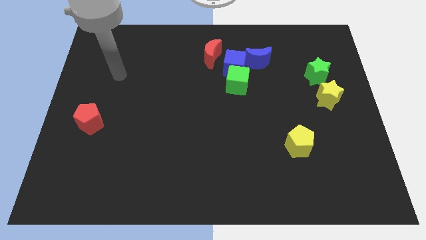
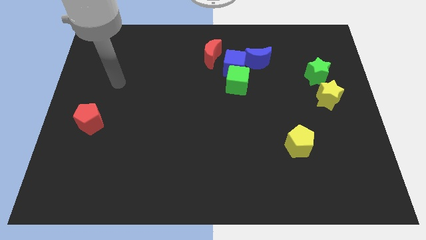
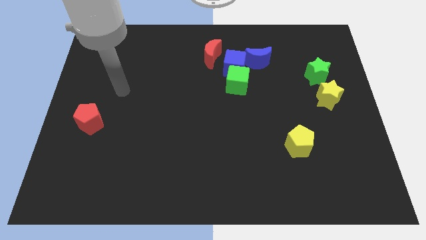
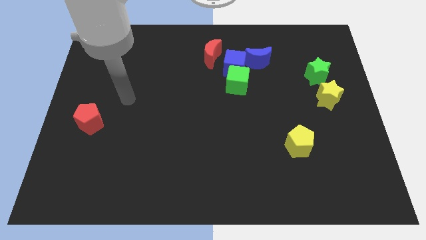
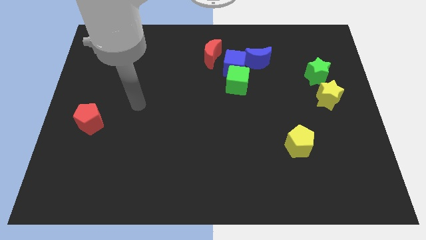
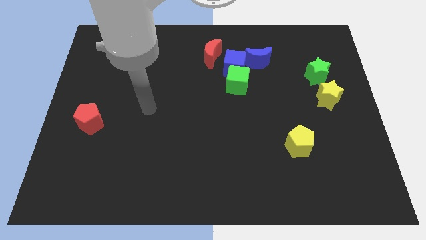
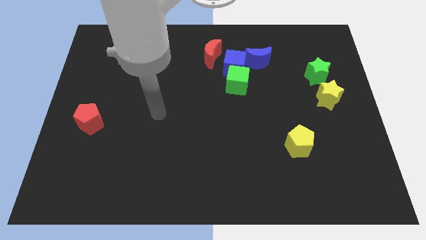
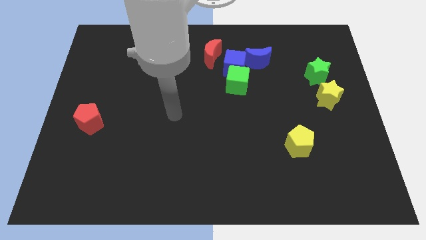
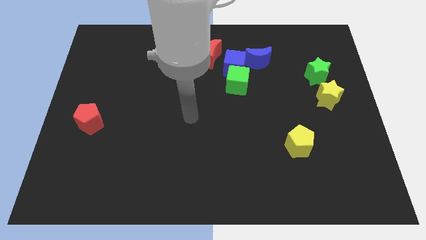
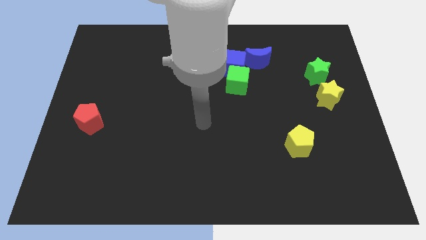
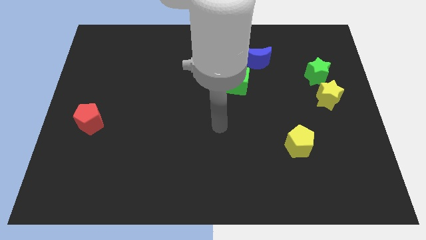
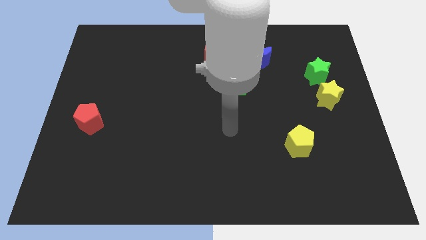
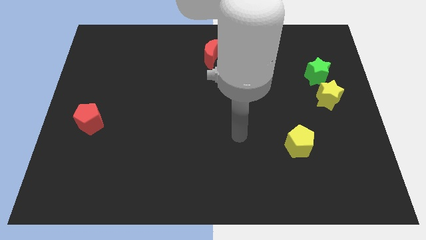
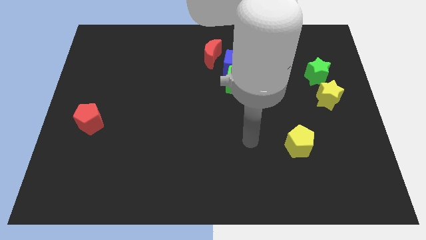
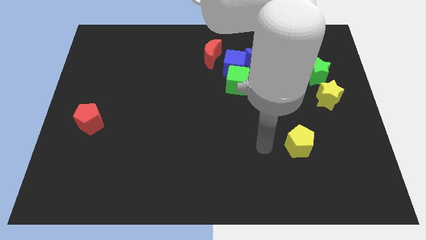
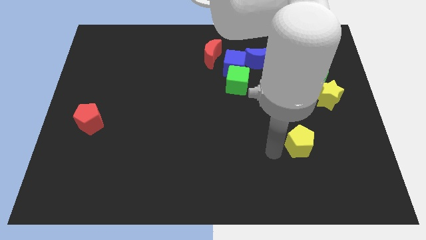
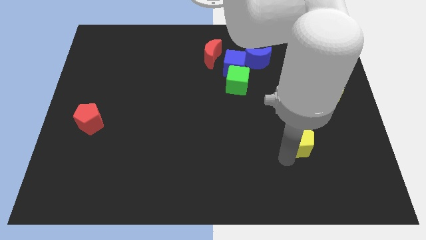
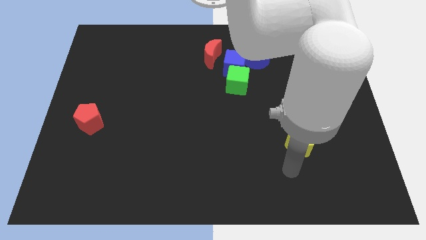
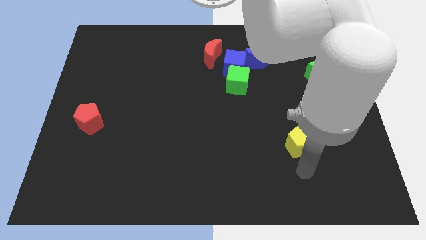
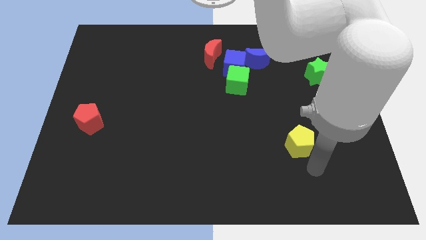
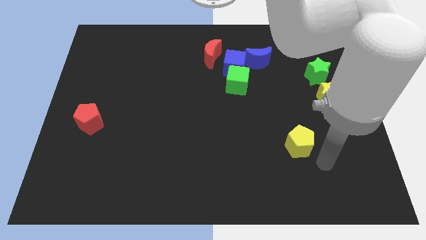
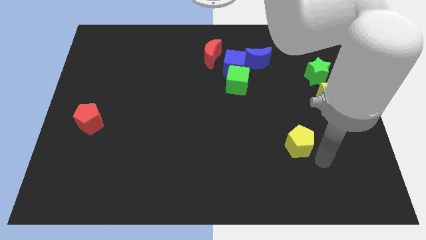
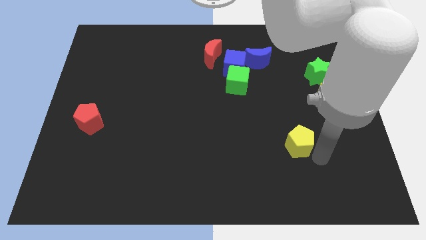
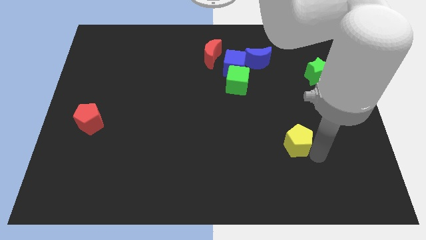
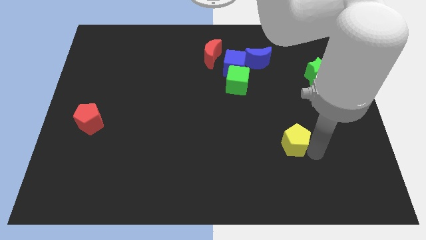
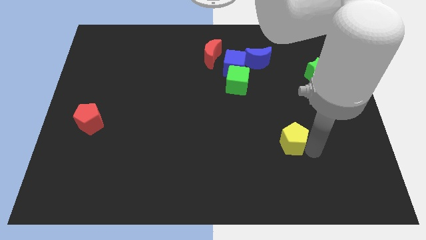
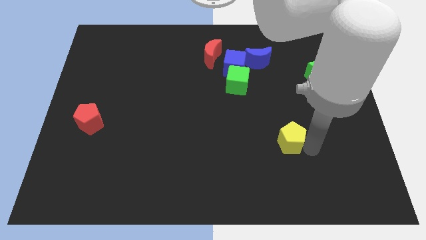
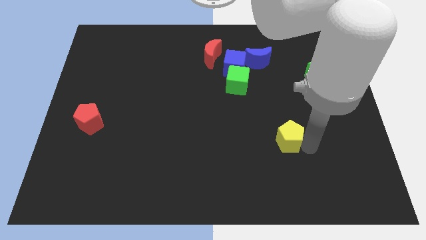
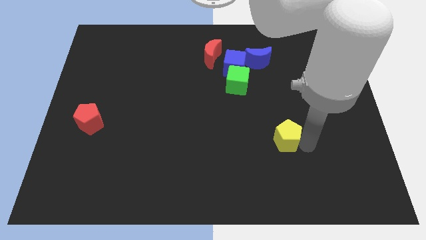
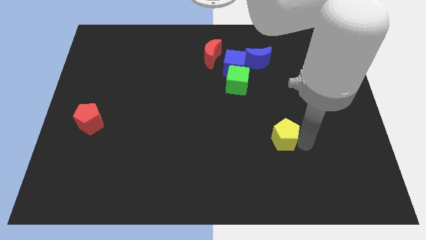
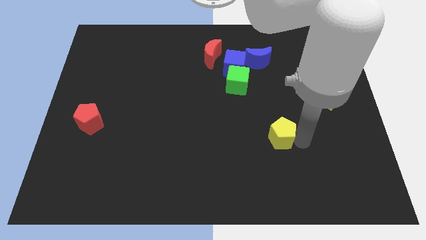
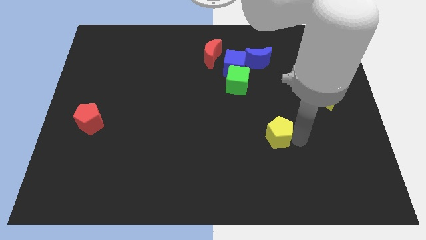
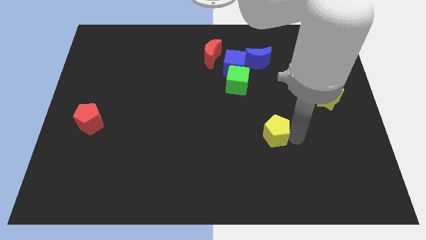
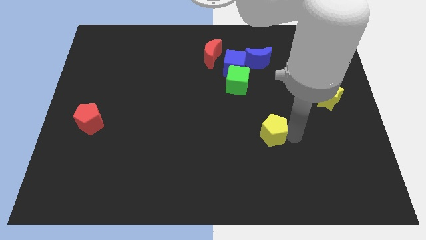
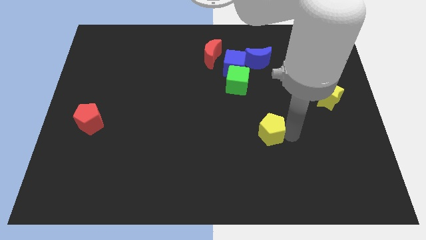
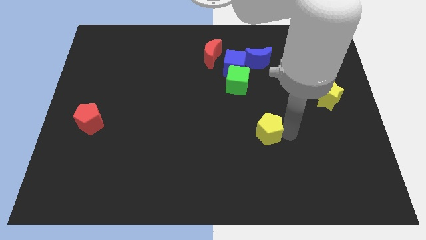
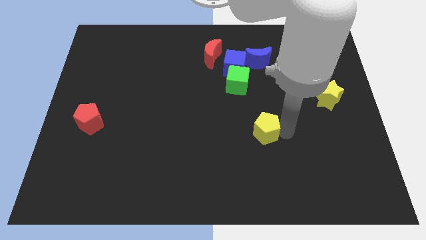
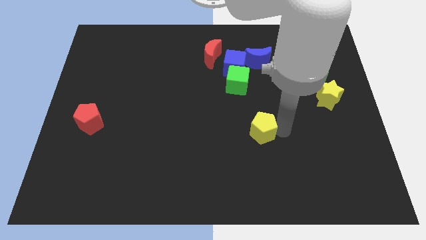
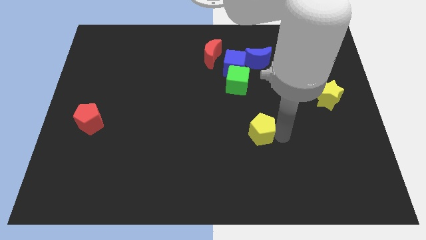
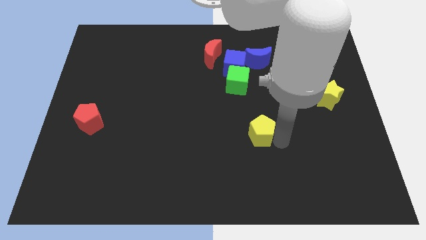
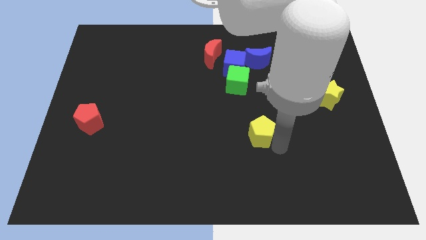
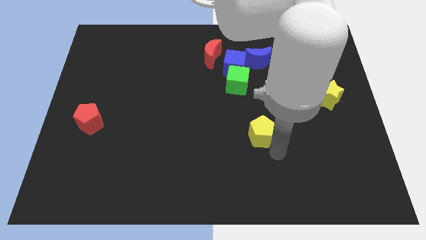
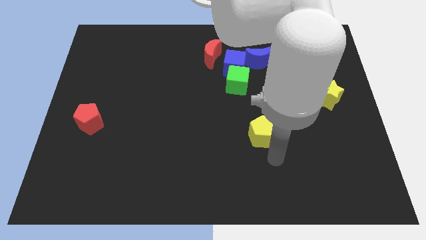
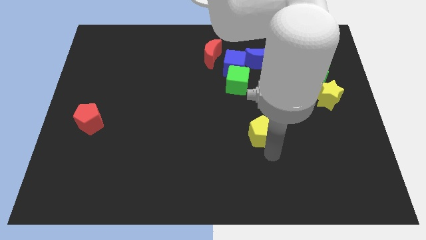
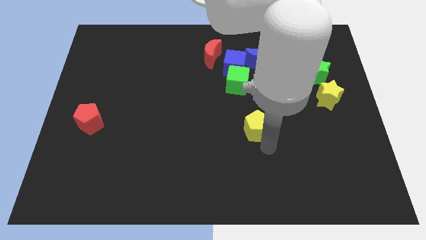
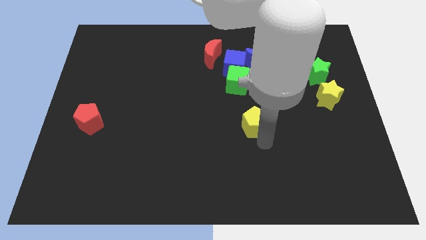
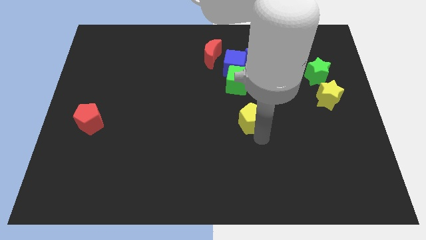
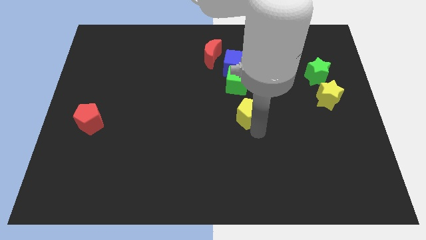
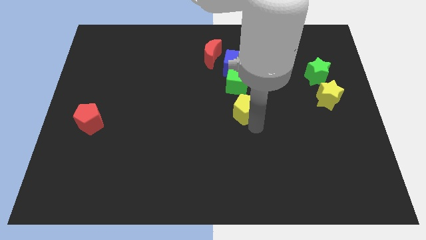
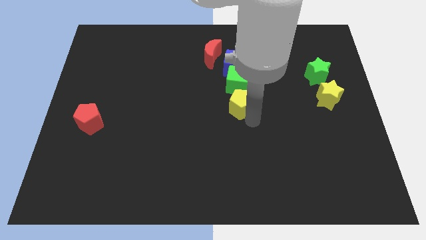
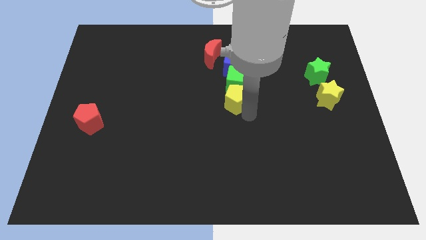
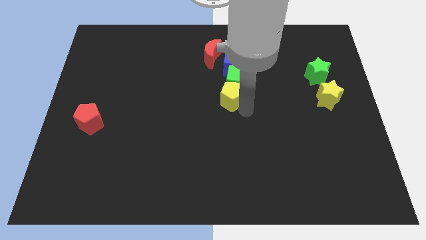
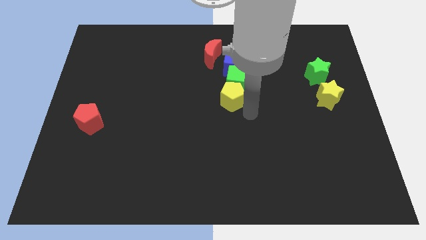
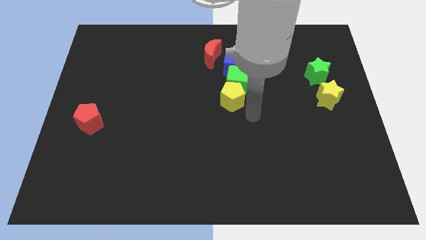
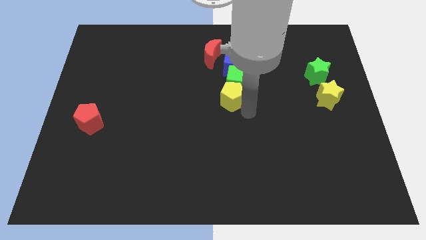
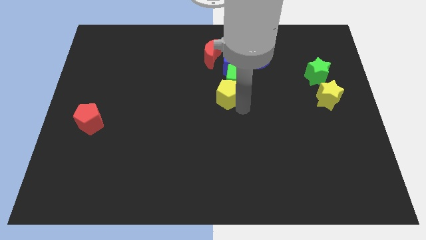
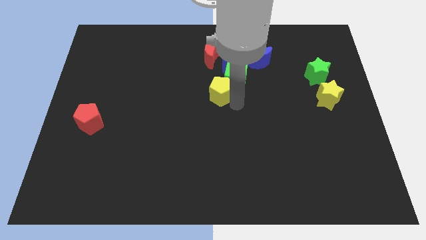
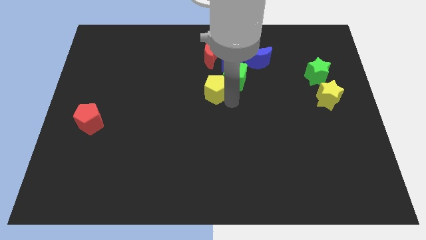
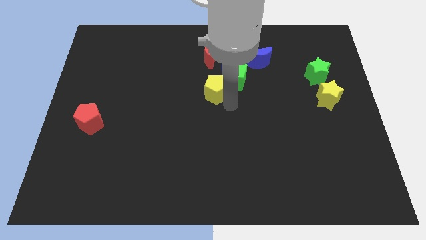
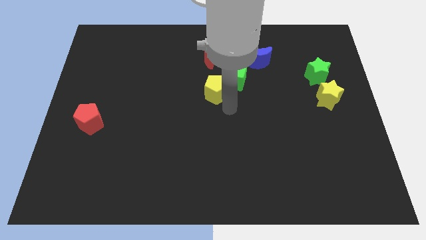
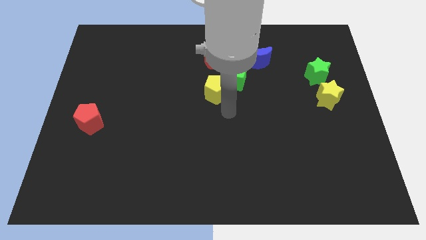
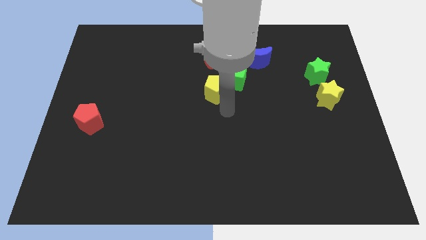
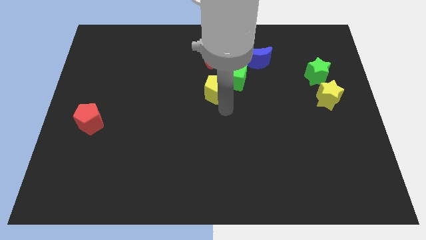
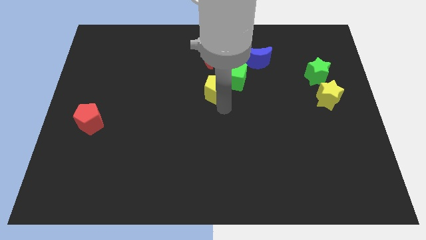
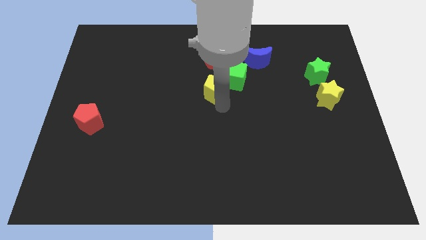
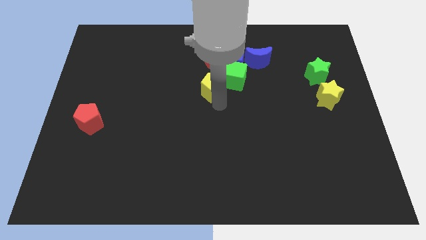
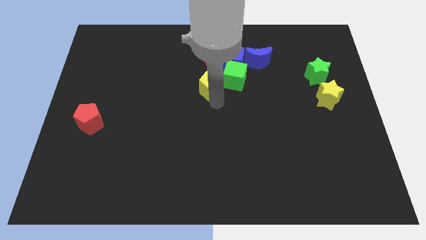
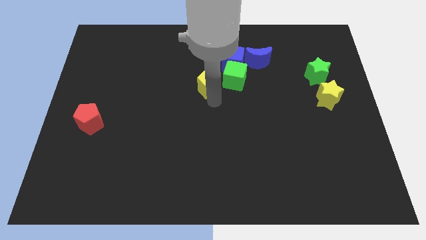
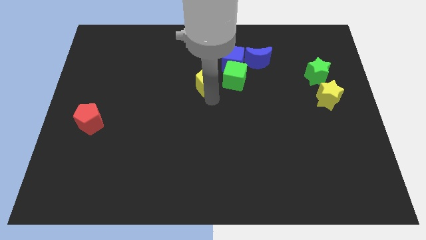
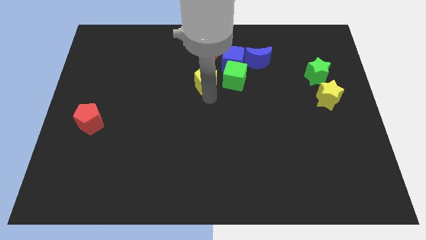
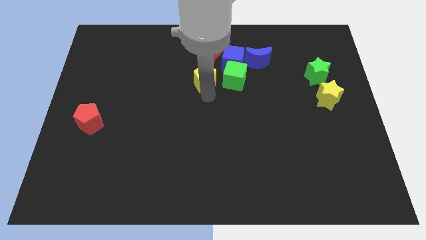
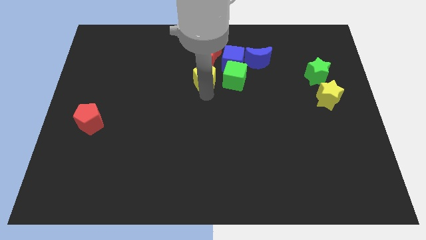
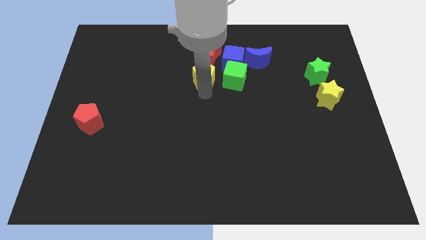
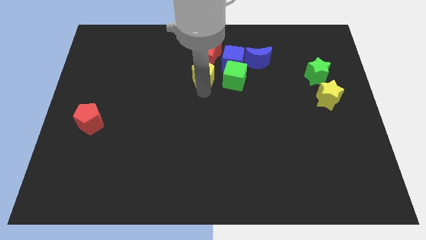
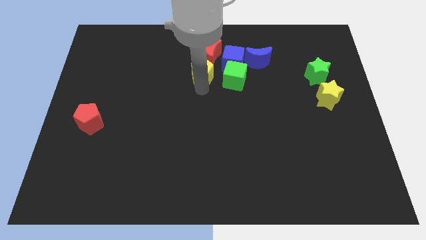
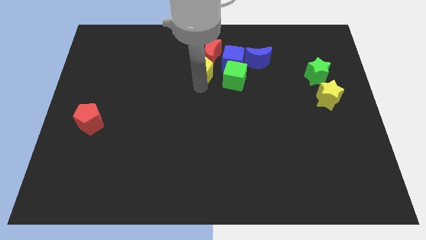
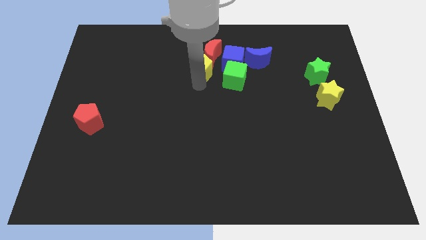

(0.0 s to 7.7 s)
move the yellow pentagon towards the red moon

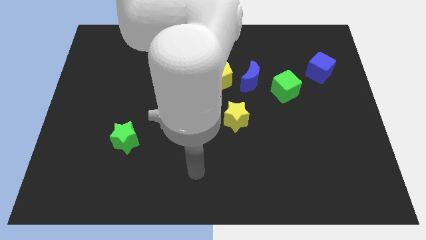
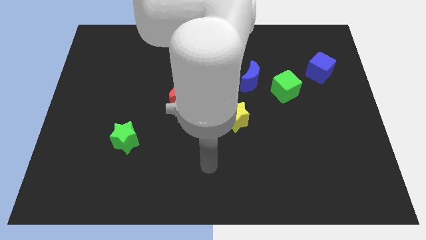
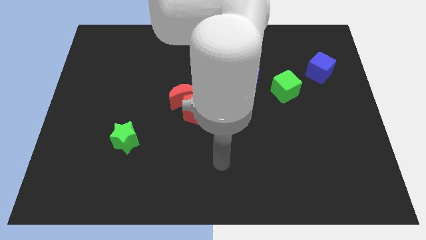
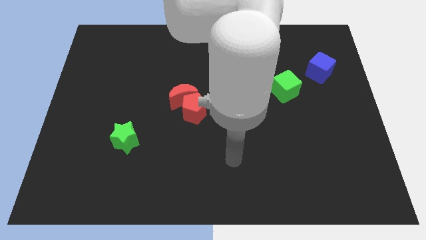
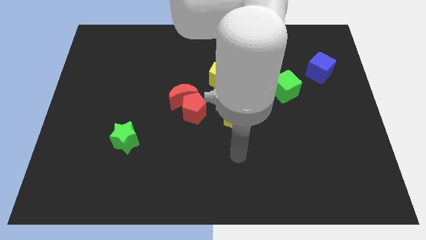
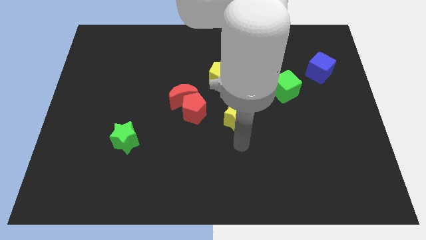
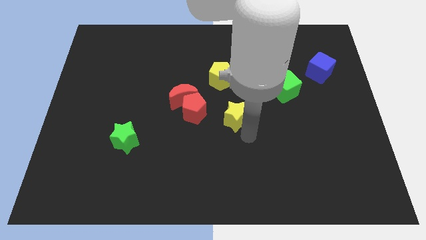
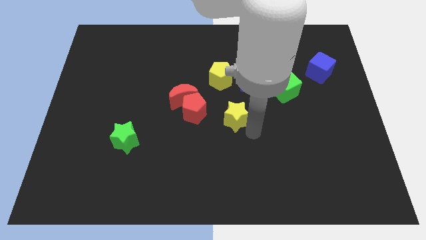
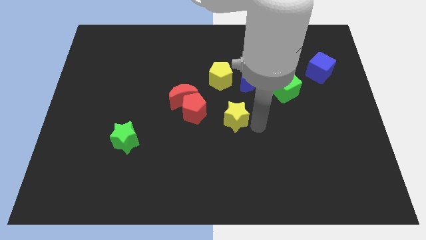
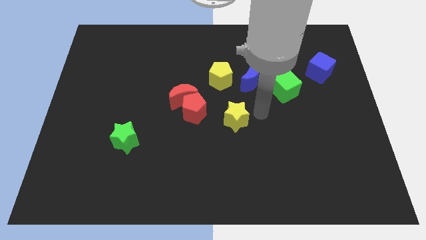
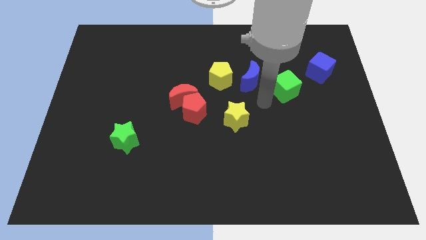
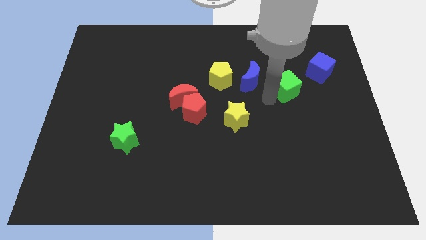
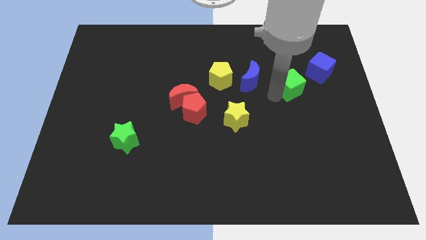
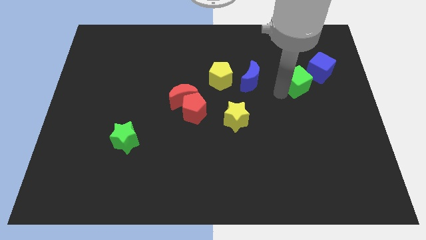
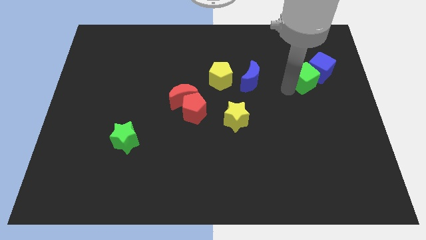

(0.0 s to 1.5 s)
put the green cube to the blue cube
